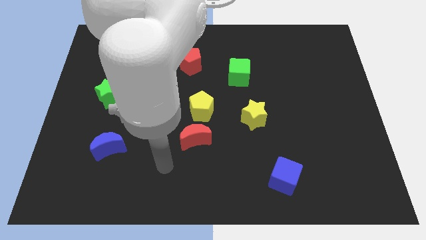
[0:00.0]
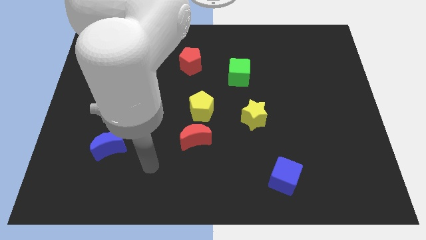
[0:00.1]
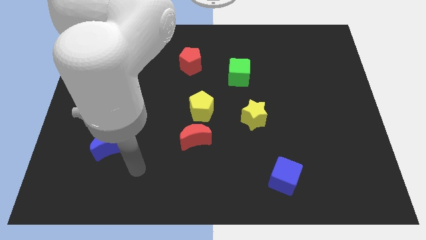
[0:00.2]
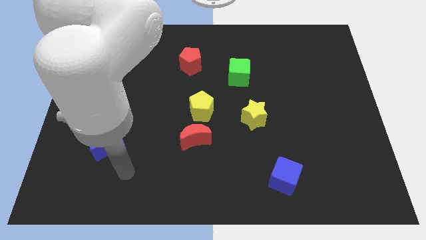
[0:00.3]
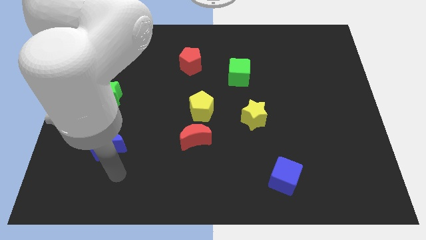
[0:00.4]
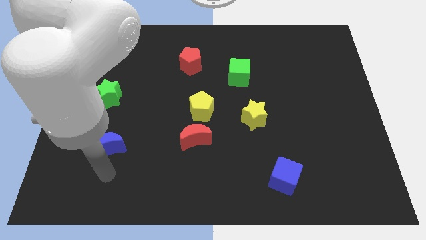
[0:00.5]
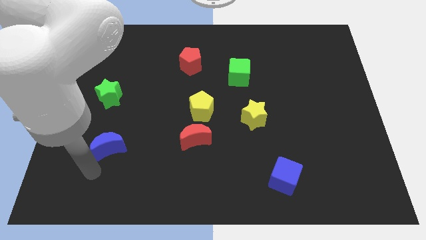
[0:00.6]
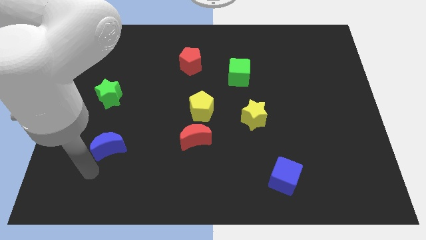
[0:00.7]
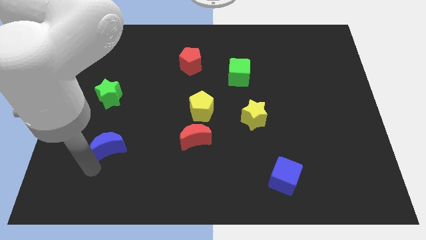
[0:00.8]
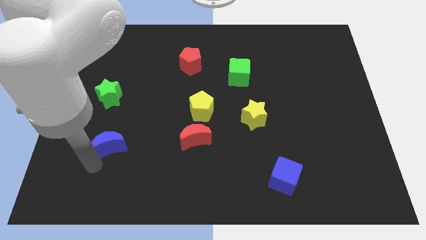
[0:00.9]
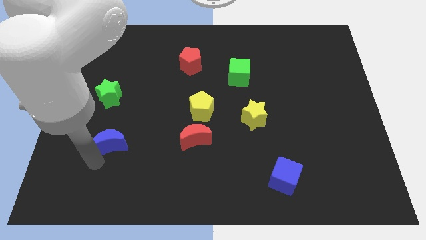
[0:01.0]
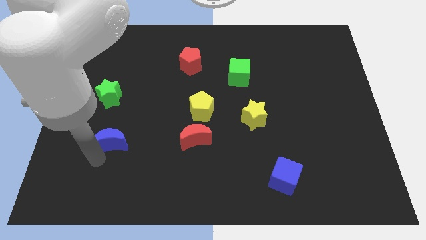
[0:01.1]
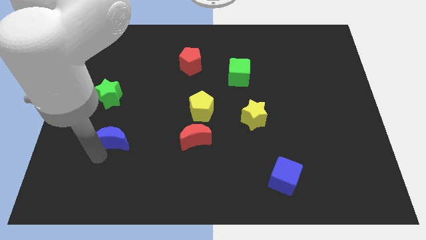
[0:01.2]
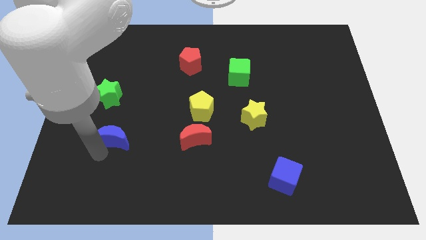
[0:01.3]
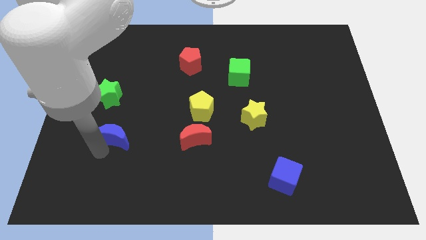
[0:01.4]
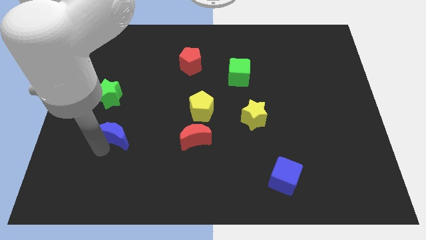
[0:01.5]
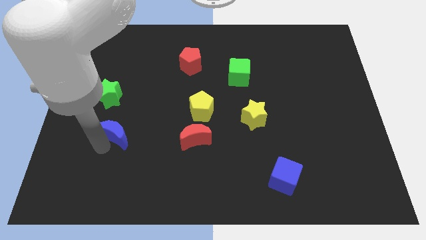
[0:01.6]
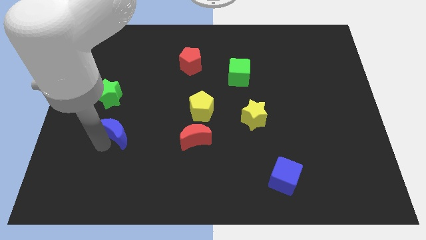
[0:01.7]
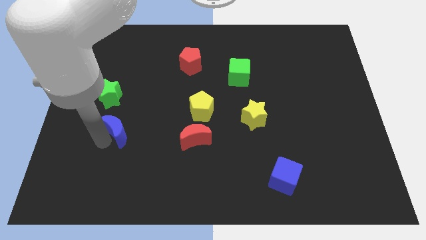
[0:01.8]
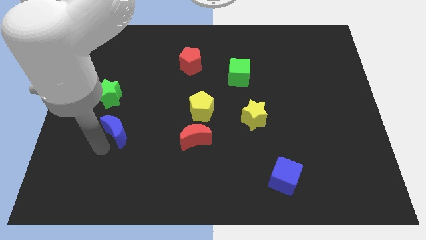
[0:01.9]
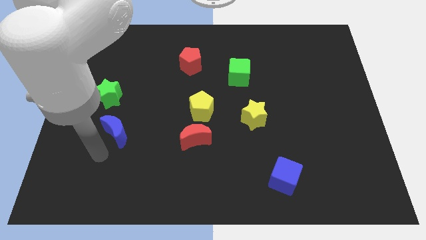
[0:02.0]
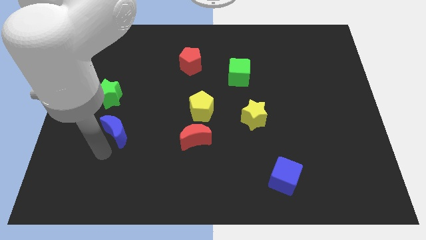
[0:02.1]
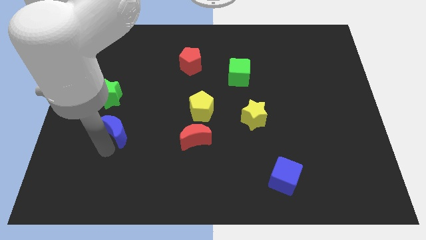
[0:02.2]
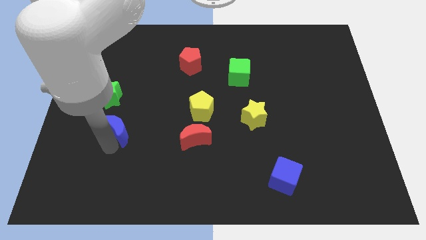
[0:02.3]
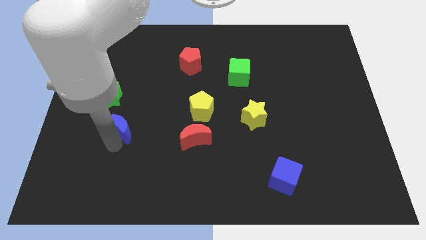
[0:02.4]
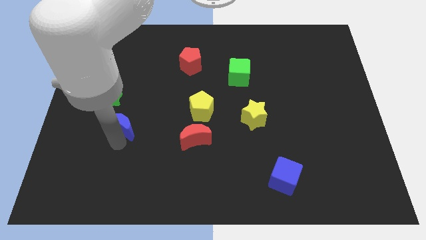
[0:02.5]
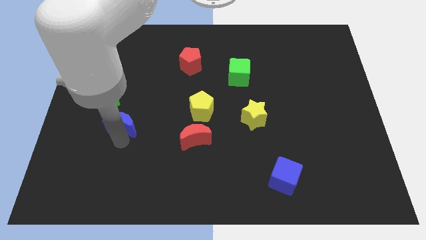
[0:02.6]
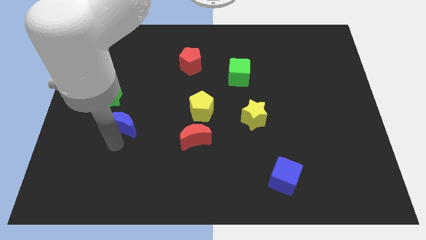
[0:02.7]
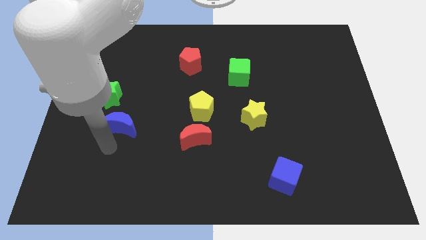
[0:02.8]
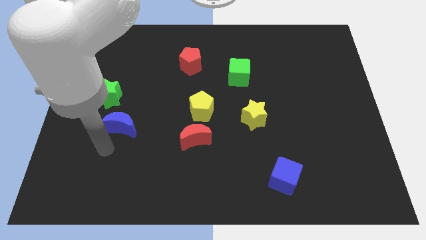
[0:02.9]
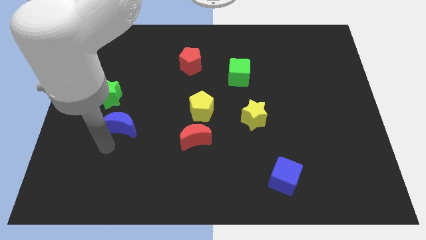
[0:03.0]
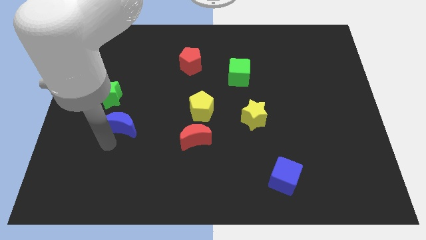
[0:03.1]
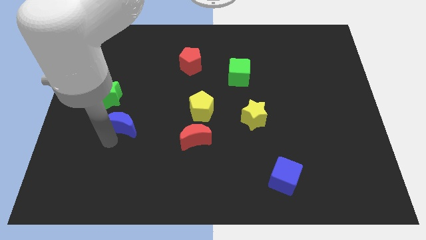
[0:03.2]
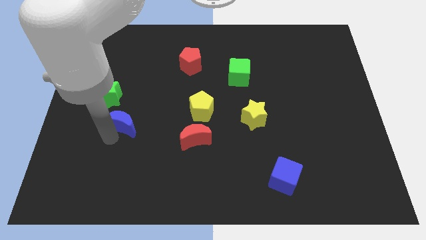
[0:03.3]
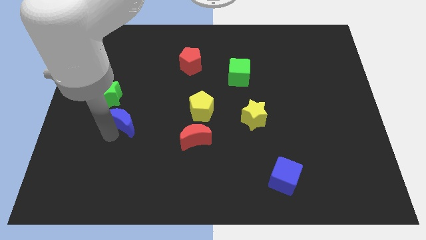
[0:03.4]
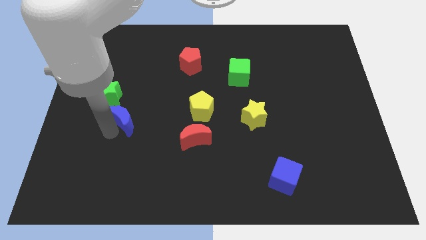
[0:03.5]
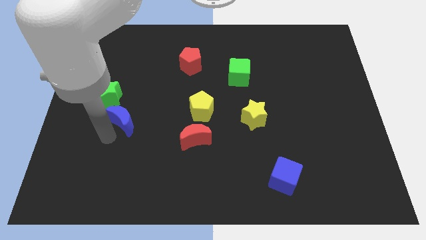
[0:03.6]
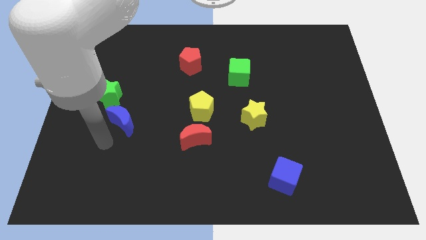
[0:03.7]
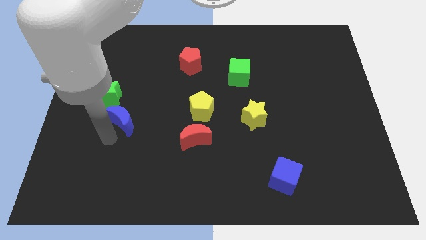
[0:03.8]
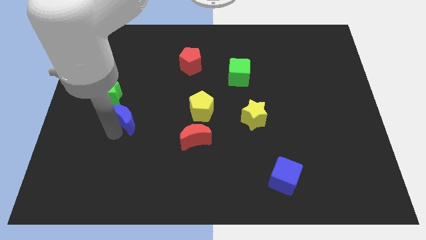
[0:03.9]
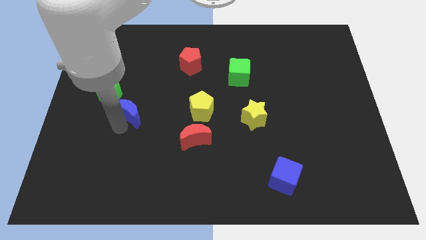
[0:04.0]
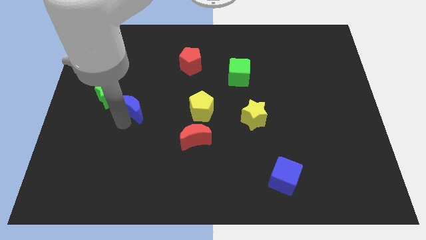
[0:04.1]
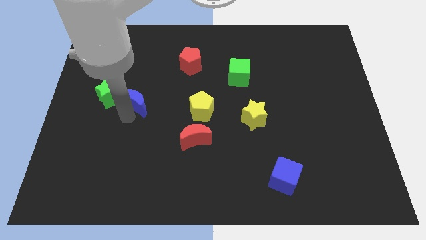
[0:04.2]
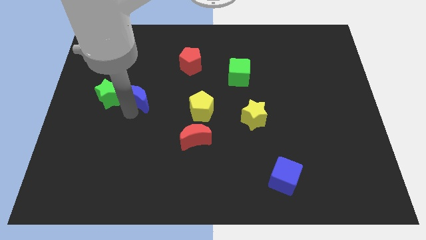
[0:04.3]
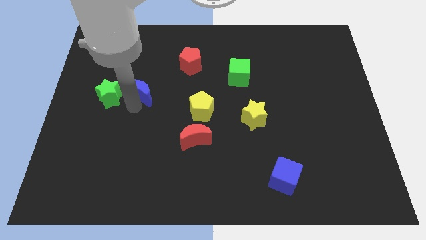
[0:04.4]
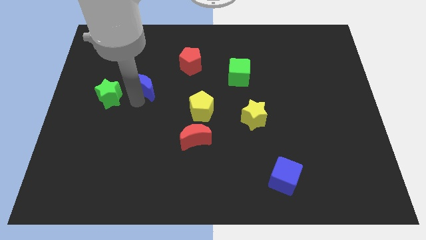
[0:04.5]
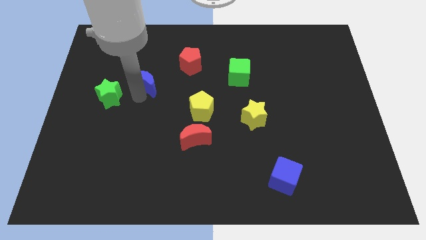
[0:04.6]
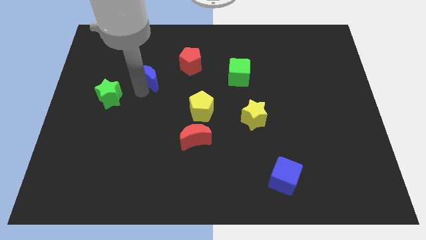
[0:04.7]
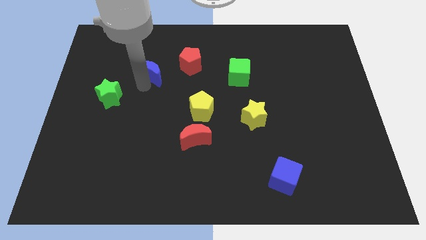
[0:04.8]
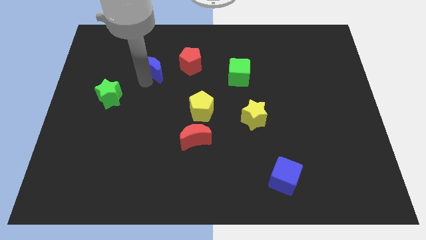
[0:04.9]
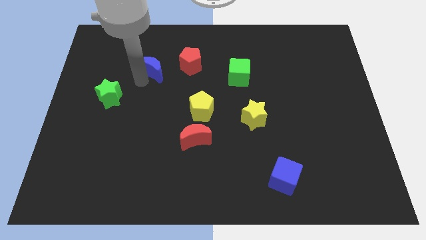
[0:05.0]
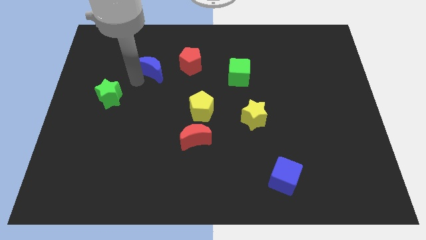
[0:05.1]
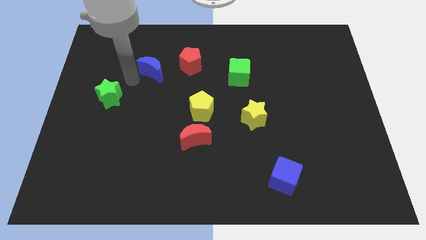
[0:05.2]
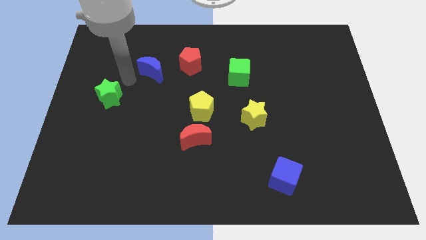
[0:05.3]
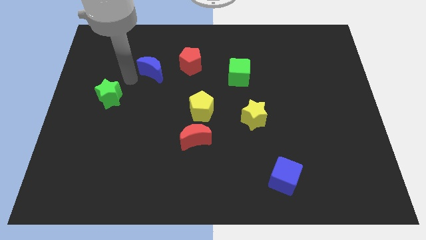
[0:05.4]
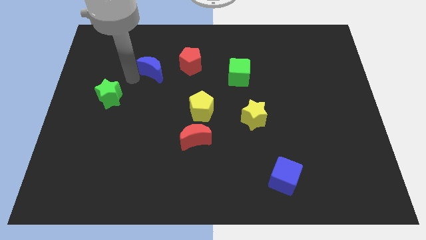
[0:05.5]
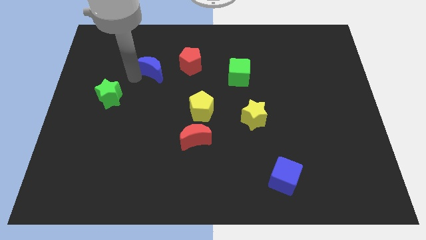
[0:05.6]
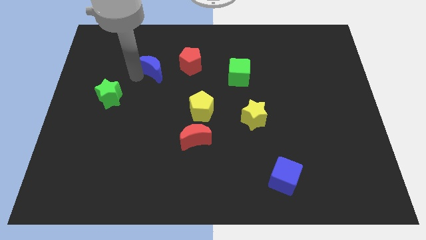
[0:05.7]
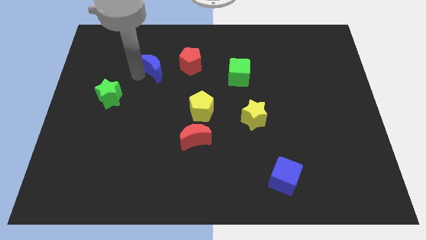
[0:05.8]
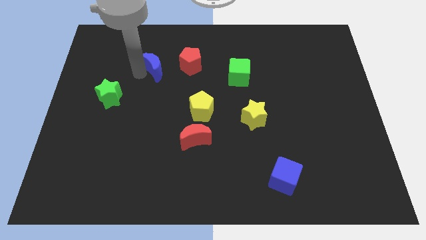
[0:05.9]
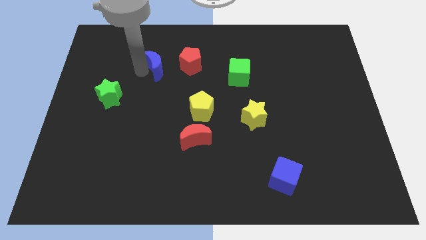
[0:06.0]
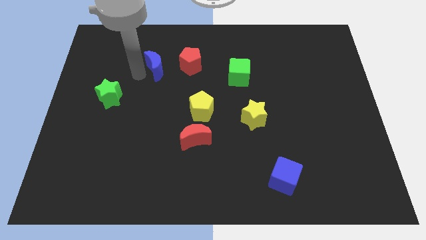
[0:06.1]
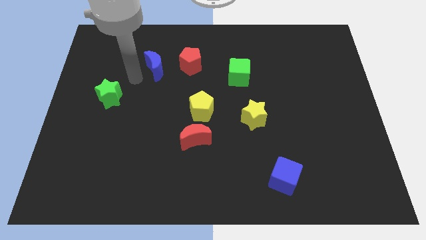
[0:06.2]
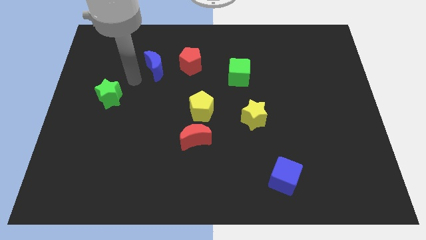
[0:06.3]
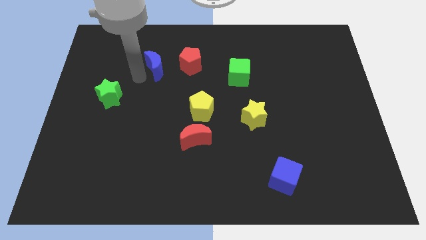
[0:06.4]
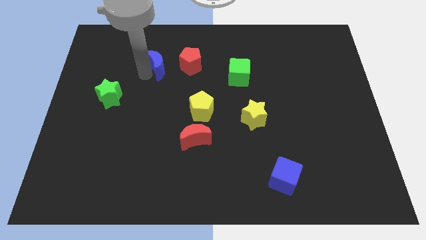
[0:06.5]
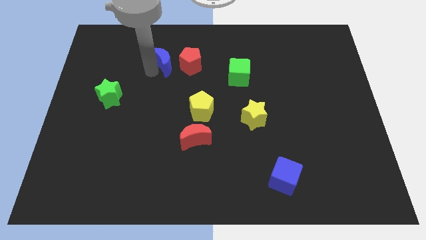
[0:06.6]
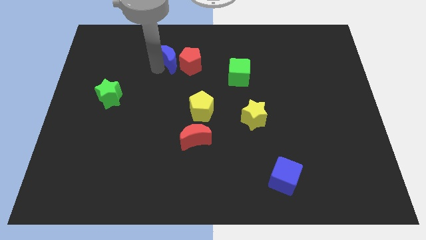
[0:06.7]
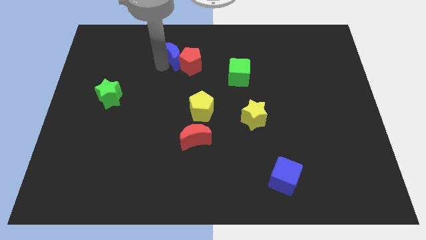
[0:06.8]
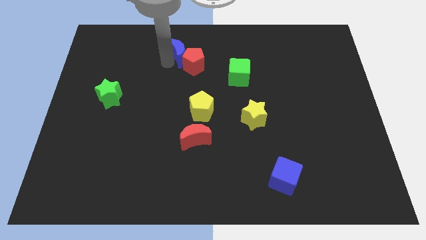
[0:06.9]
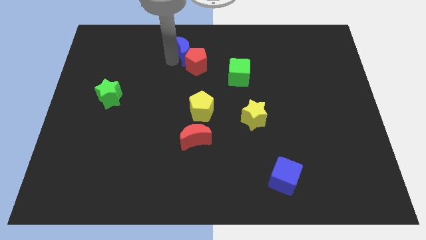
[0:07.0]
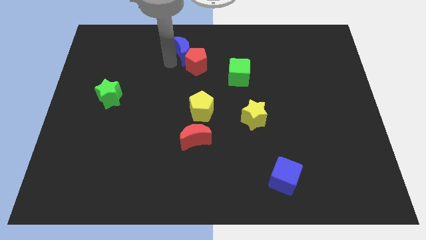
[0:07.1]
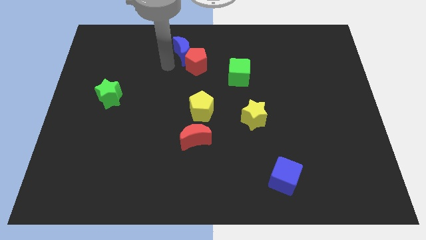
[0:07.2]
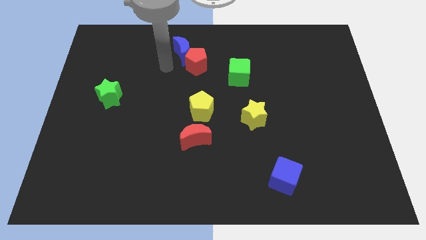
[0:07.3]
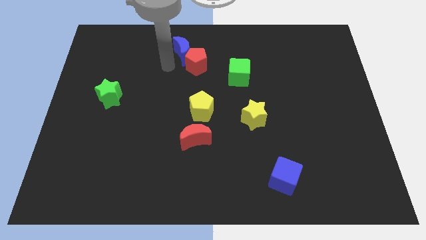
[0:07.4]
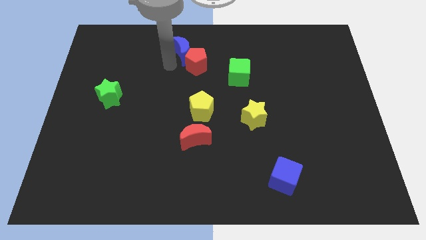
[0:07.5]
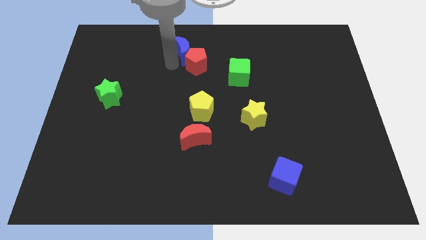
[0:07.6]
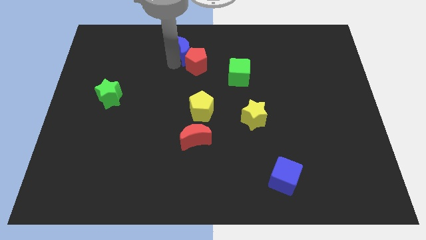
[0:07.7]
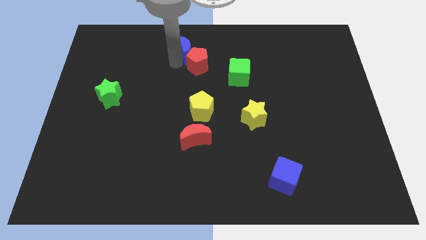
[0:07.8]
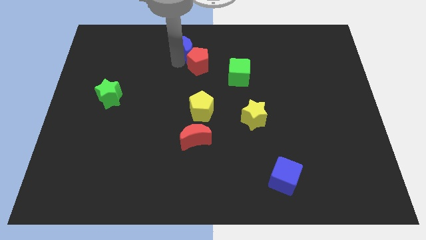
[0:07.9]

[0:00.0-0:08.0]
move the blue moon to the top
